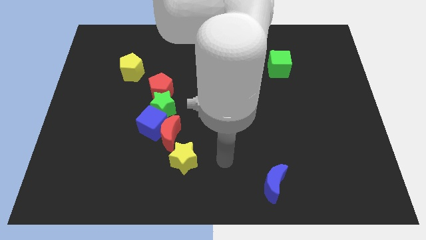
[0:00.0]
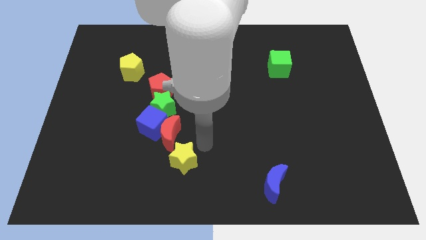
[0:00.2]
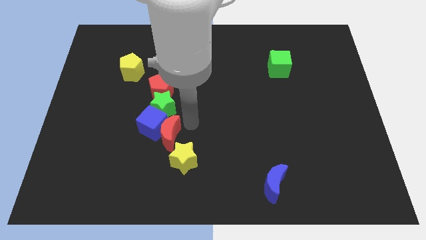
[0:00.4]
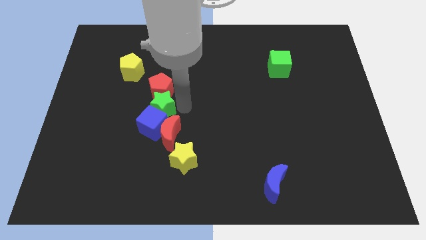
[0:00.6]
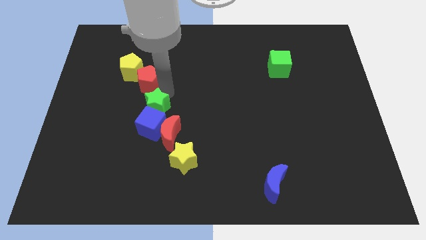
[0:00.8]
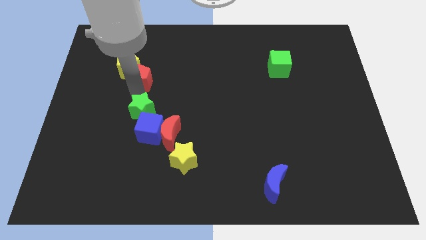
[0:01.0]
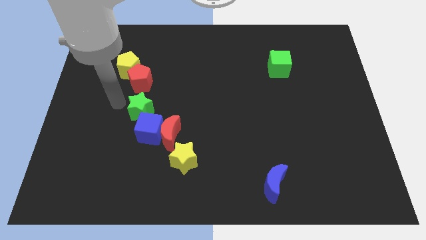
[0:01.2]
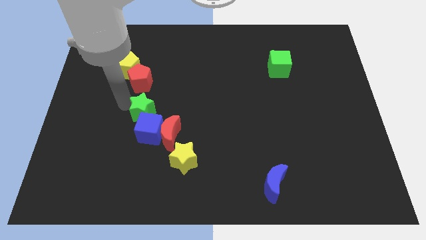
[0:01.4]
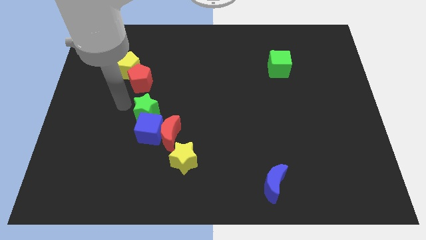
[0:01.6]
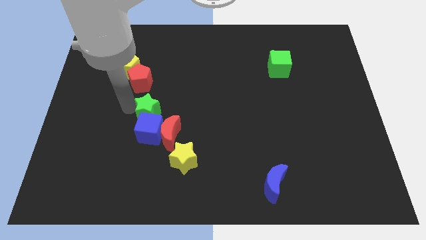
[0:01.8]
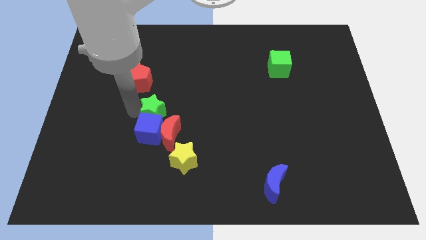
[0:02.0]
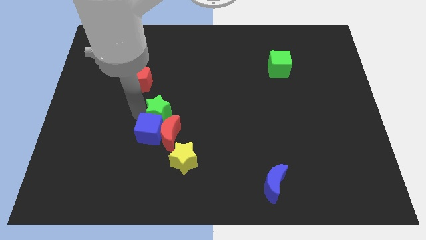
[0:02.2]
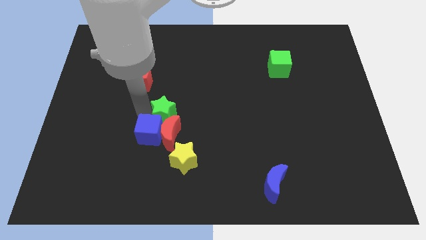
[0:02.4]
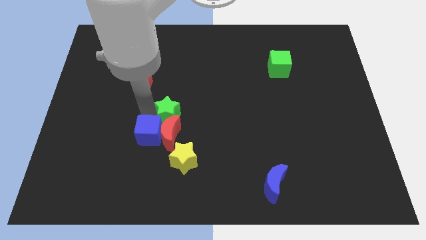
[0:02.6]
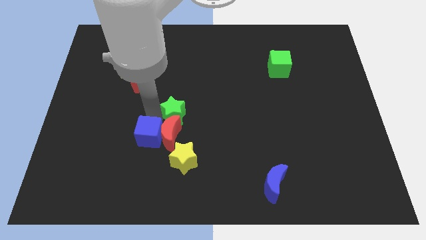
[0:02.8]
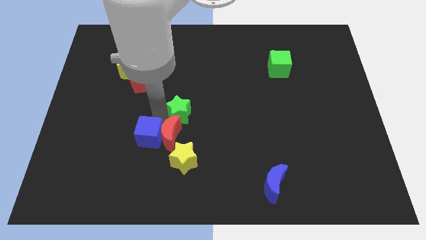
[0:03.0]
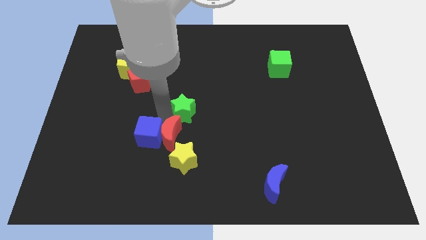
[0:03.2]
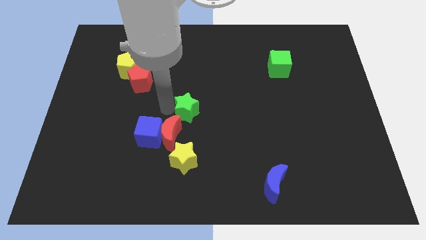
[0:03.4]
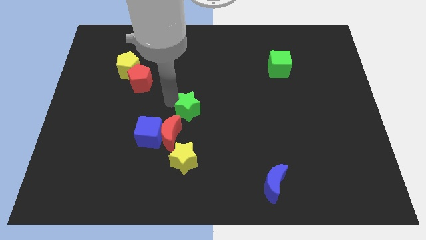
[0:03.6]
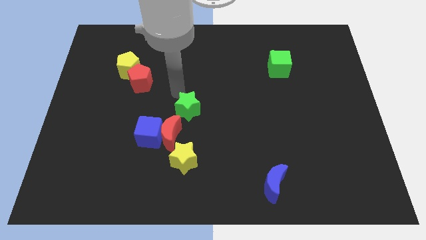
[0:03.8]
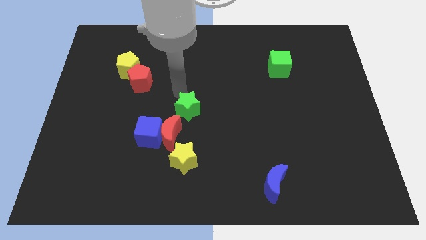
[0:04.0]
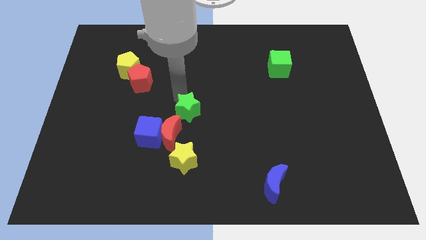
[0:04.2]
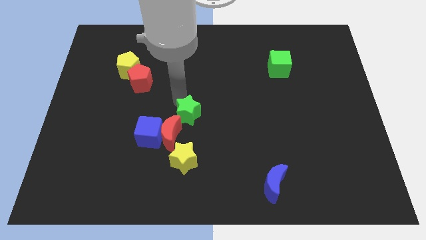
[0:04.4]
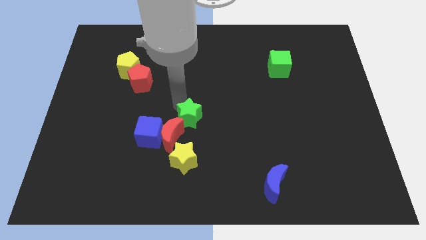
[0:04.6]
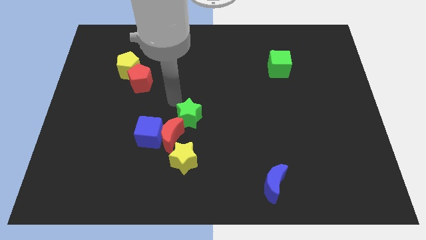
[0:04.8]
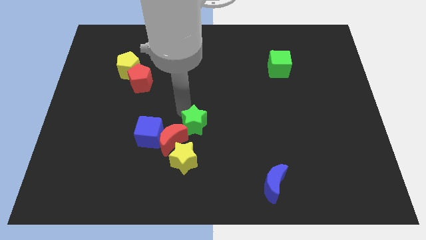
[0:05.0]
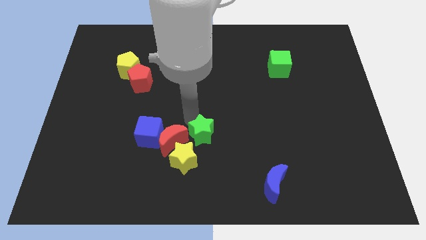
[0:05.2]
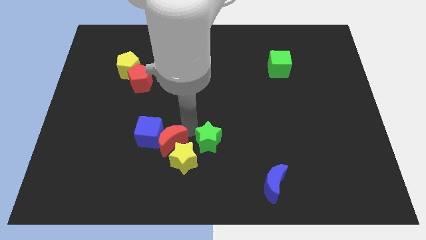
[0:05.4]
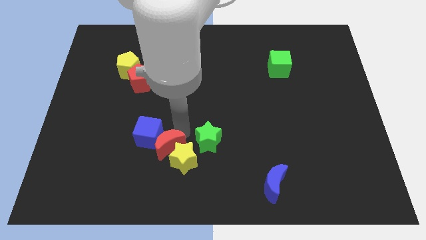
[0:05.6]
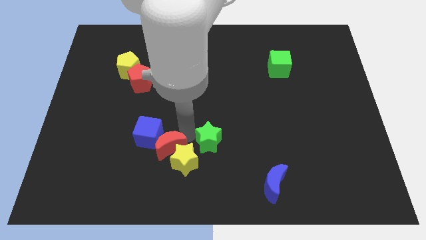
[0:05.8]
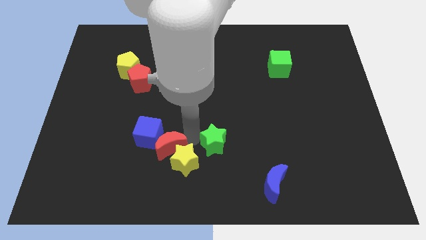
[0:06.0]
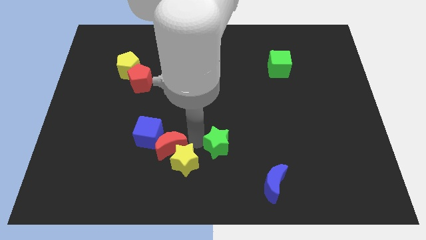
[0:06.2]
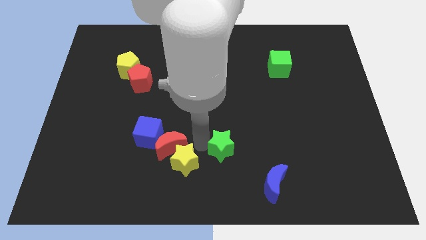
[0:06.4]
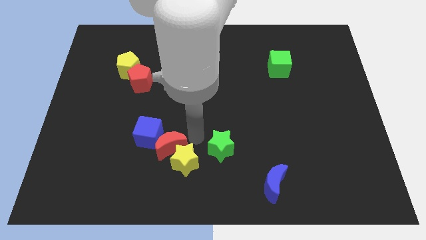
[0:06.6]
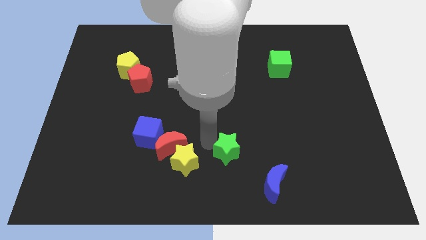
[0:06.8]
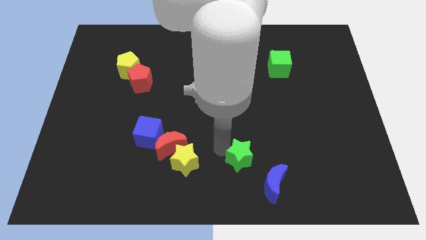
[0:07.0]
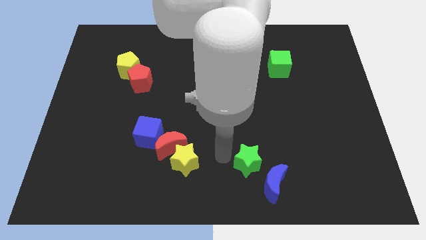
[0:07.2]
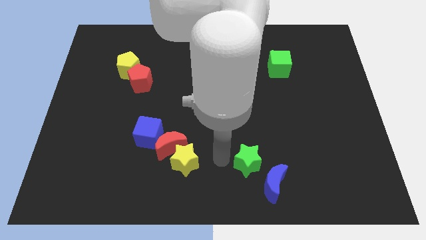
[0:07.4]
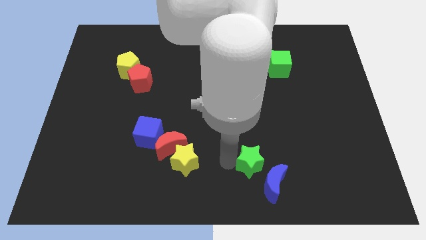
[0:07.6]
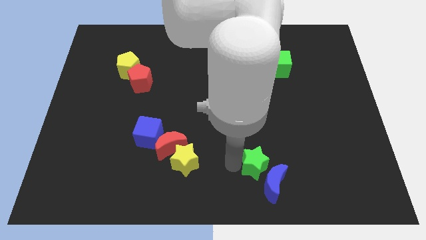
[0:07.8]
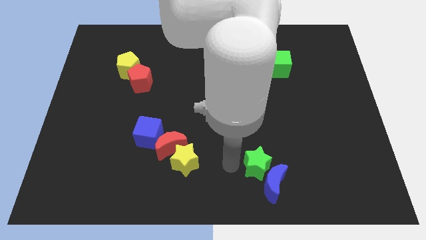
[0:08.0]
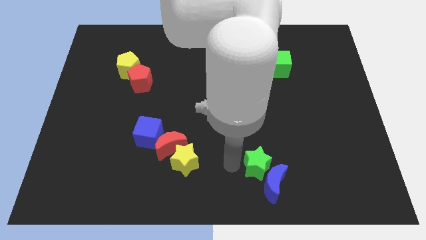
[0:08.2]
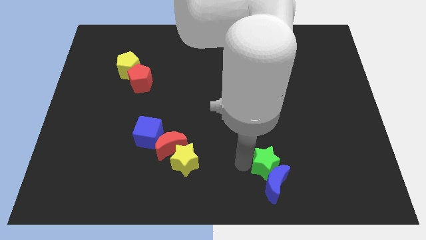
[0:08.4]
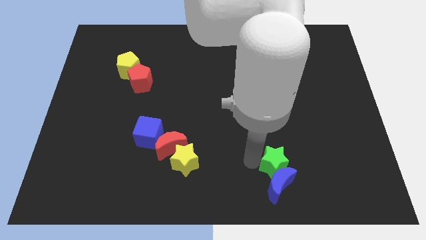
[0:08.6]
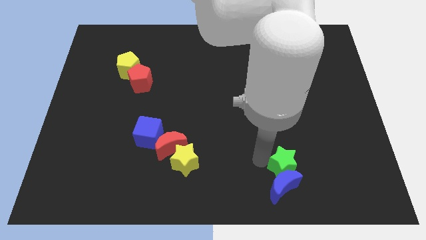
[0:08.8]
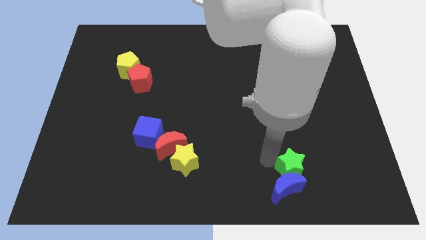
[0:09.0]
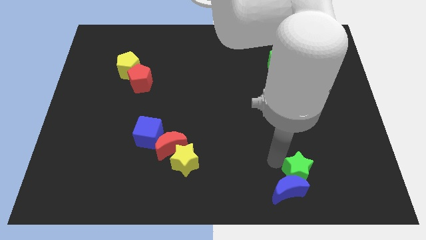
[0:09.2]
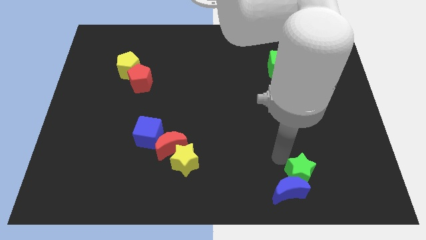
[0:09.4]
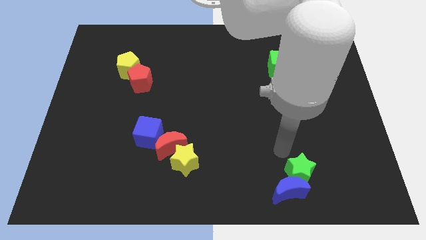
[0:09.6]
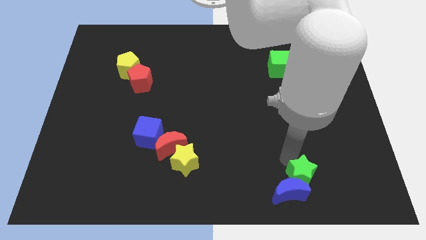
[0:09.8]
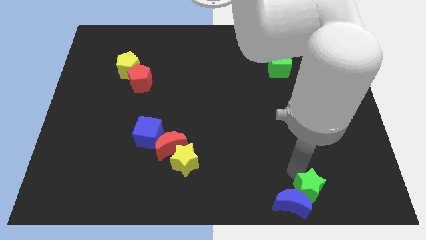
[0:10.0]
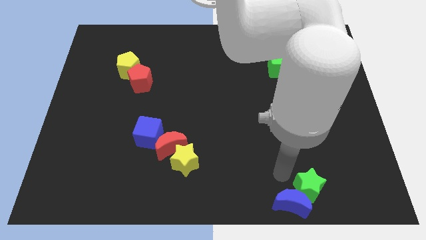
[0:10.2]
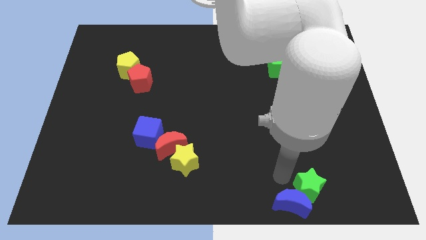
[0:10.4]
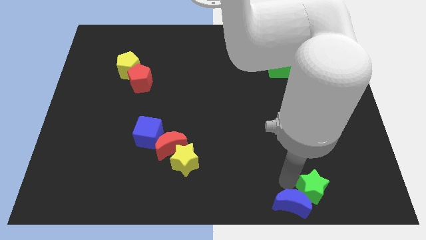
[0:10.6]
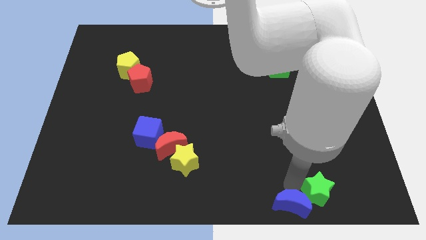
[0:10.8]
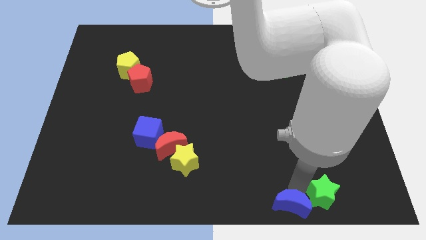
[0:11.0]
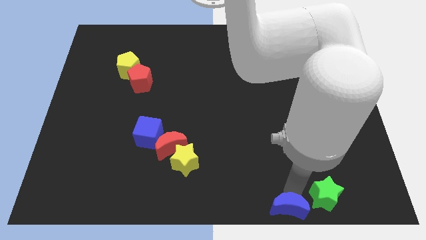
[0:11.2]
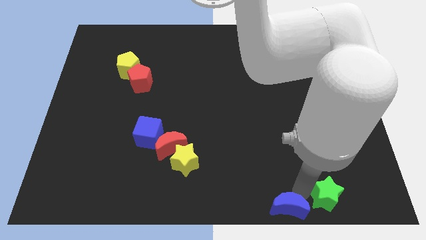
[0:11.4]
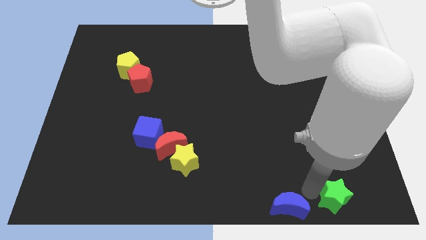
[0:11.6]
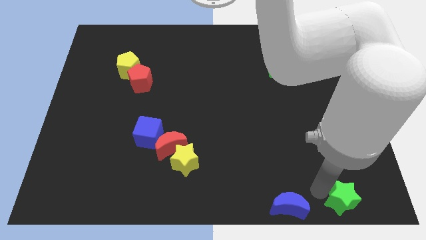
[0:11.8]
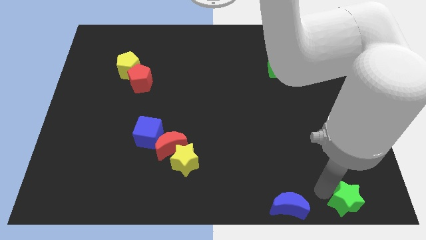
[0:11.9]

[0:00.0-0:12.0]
move the green star to the bottom right corner
